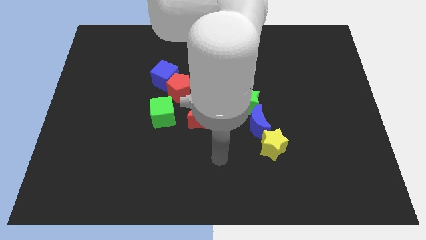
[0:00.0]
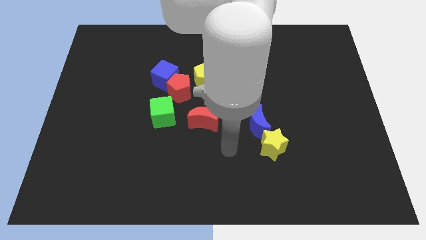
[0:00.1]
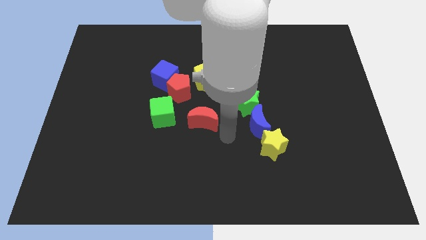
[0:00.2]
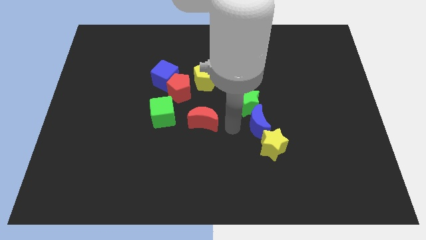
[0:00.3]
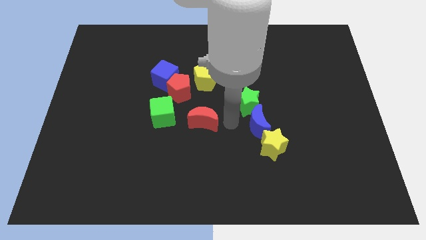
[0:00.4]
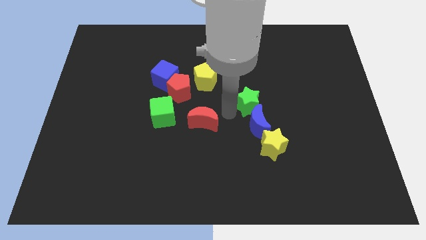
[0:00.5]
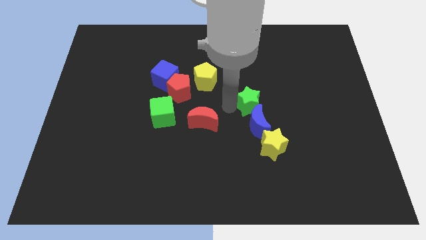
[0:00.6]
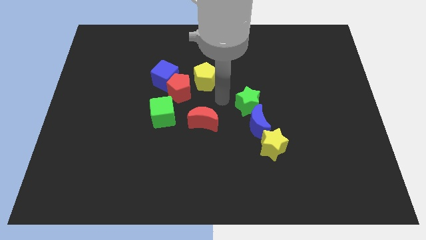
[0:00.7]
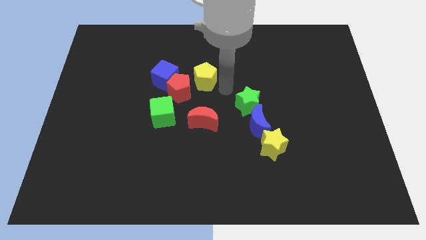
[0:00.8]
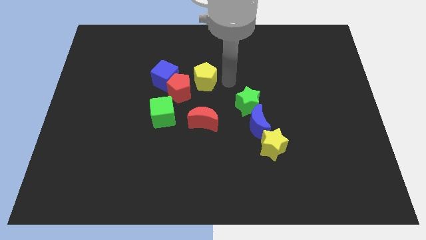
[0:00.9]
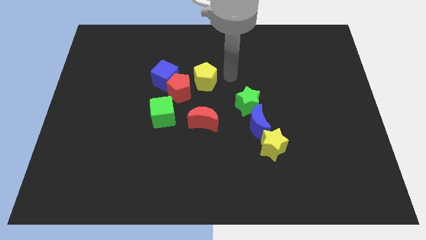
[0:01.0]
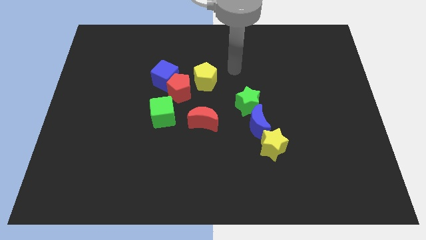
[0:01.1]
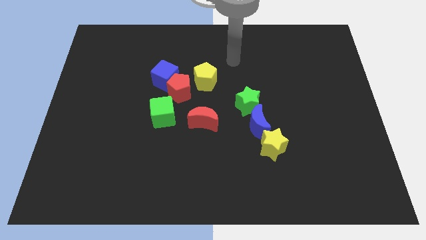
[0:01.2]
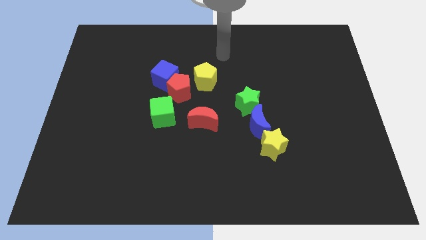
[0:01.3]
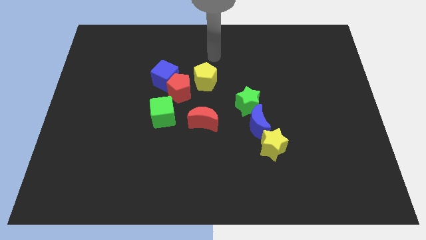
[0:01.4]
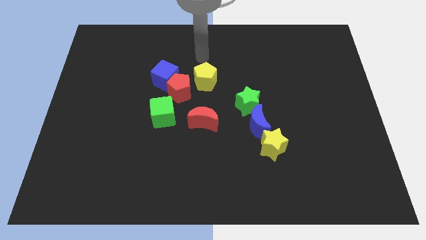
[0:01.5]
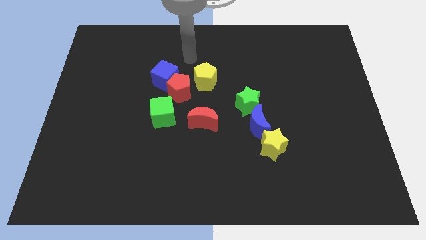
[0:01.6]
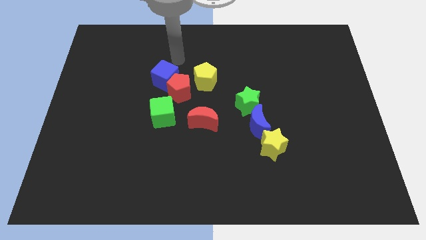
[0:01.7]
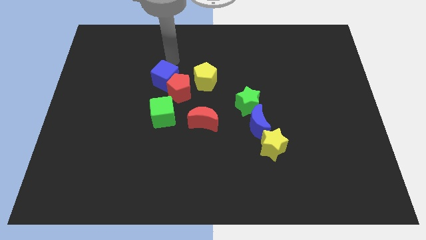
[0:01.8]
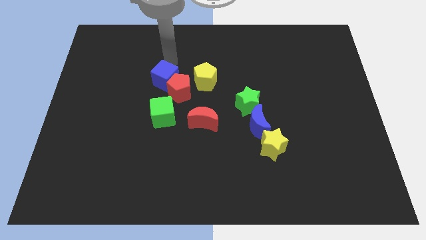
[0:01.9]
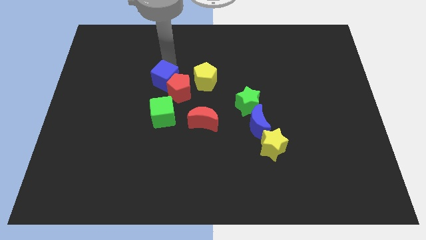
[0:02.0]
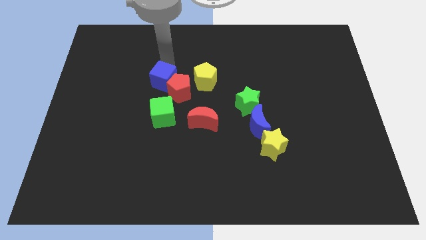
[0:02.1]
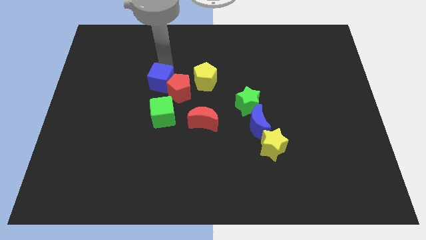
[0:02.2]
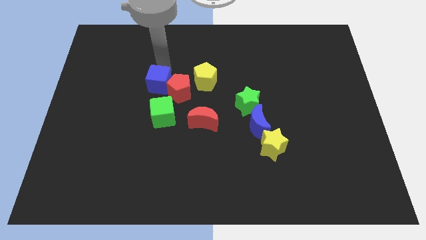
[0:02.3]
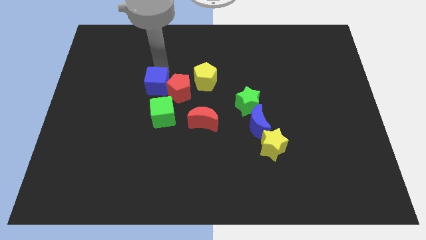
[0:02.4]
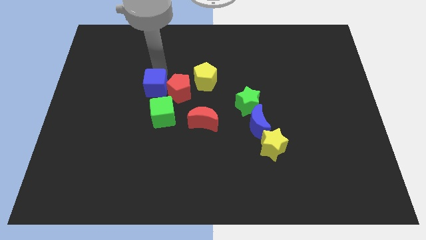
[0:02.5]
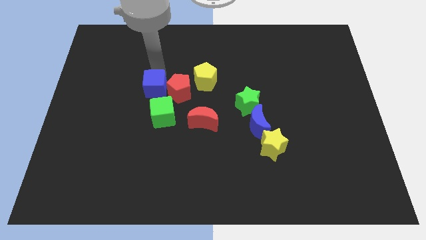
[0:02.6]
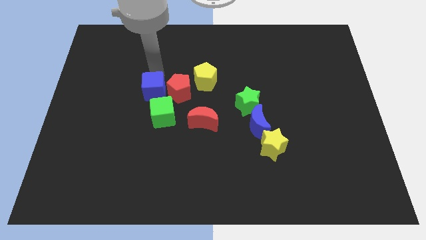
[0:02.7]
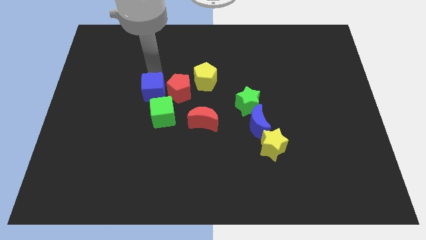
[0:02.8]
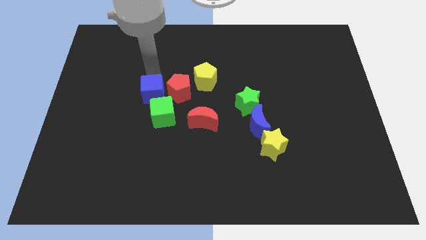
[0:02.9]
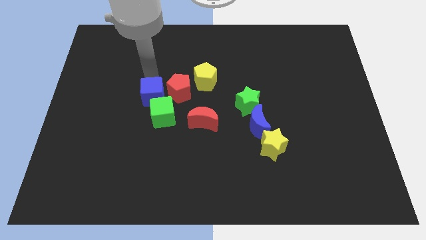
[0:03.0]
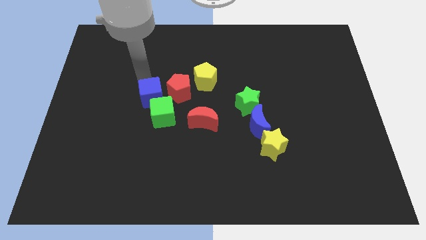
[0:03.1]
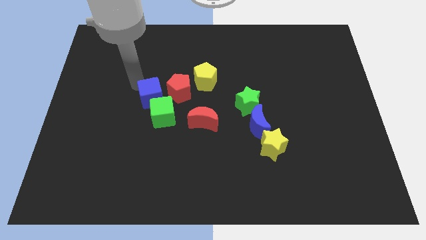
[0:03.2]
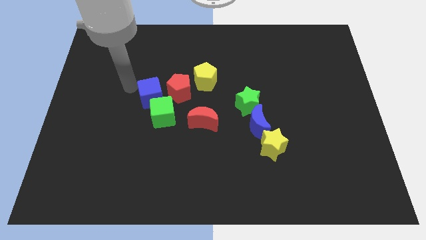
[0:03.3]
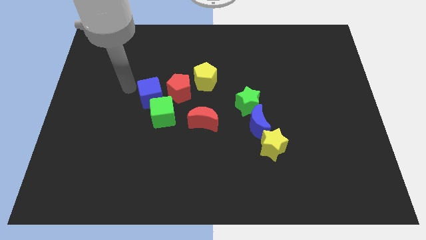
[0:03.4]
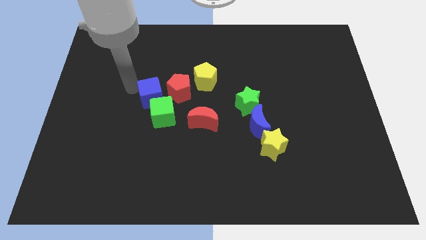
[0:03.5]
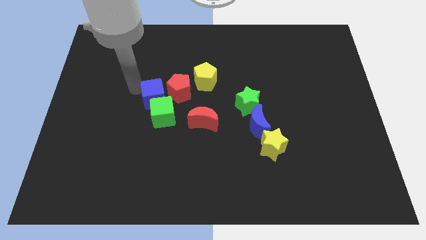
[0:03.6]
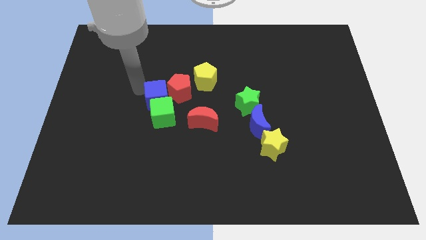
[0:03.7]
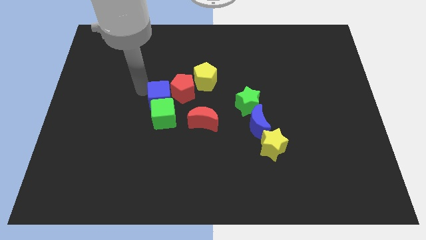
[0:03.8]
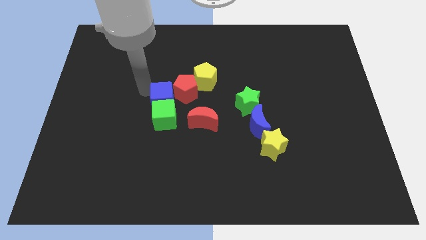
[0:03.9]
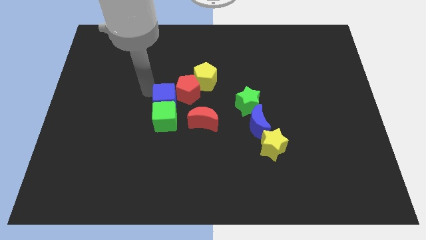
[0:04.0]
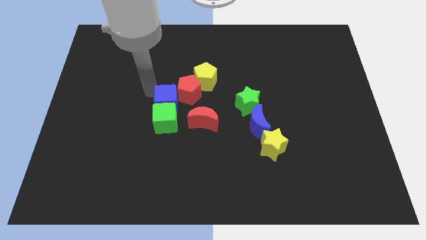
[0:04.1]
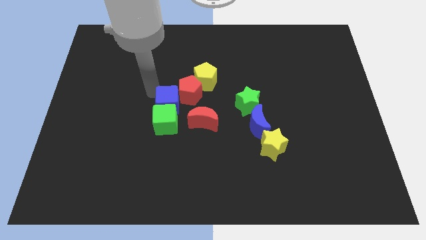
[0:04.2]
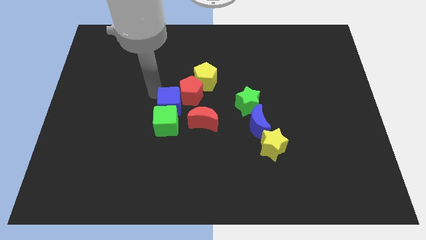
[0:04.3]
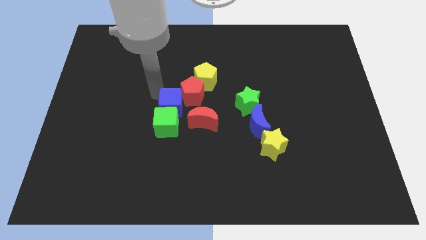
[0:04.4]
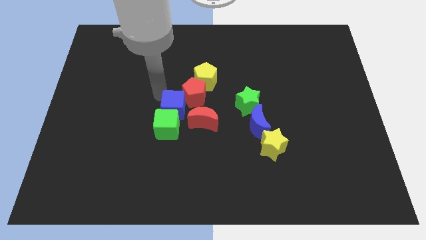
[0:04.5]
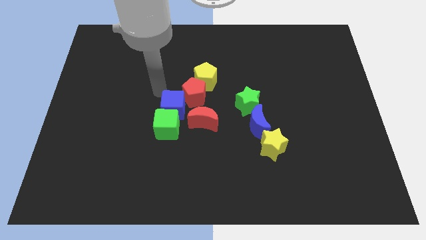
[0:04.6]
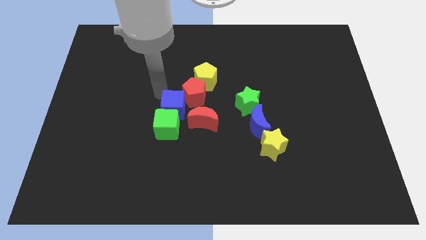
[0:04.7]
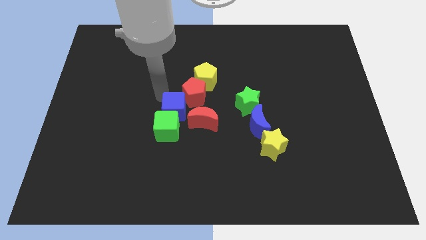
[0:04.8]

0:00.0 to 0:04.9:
move the blue cube below the red pentagon

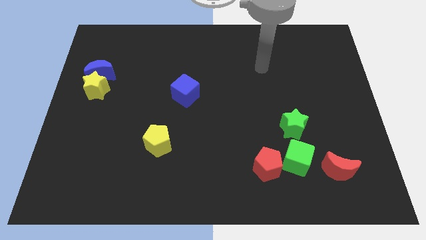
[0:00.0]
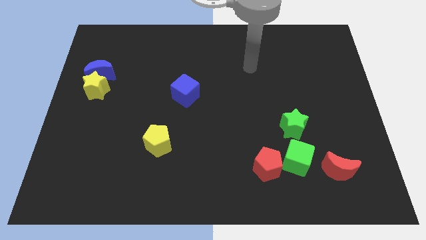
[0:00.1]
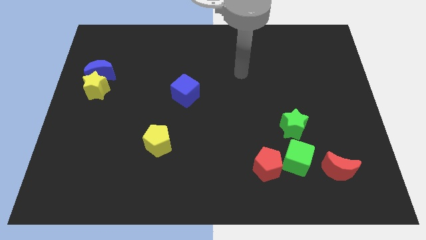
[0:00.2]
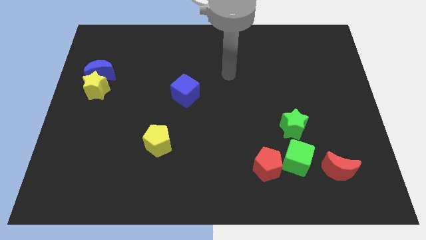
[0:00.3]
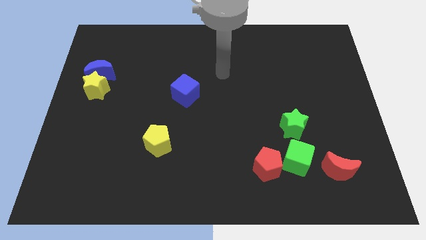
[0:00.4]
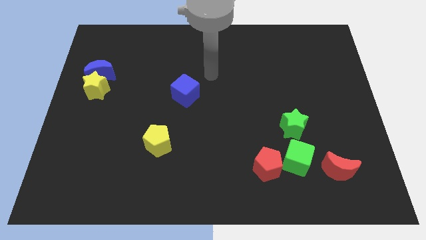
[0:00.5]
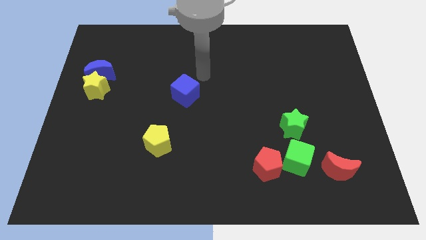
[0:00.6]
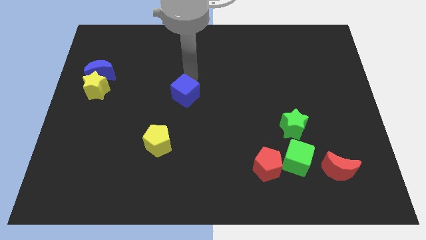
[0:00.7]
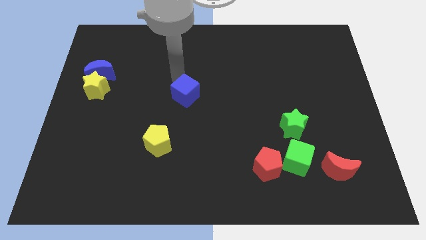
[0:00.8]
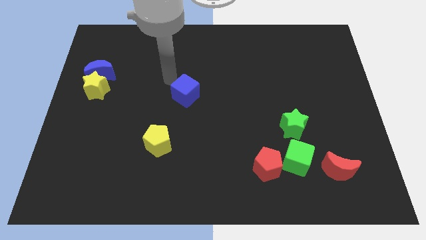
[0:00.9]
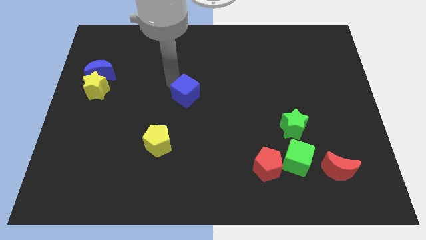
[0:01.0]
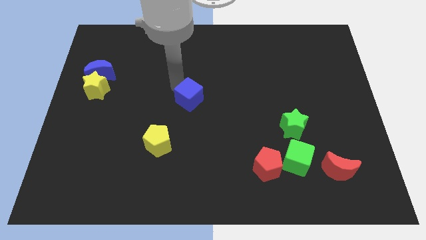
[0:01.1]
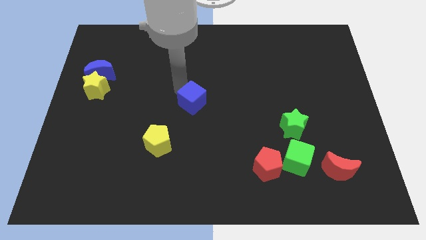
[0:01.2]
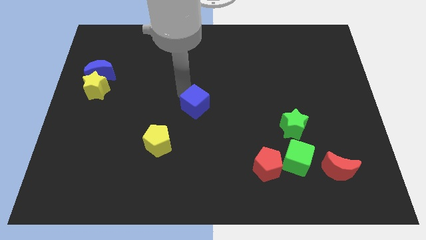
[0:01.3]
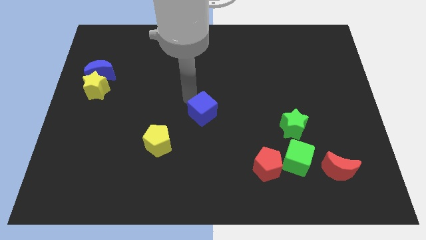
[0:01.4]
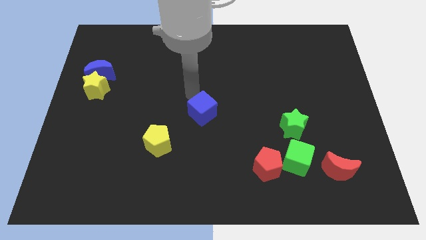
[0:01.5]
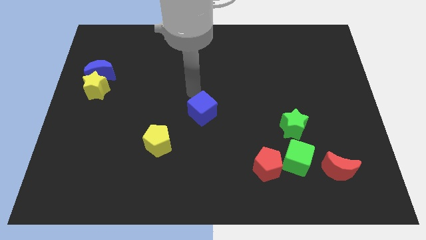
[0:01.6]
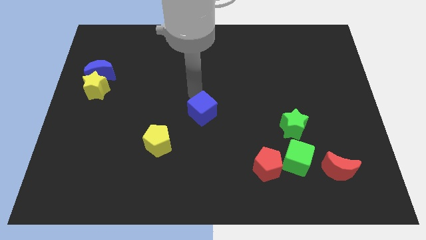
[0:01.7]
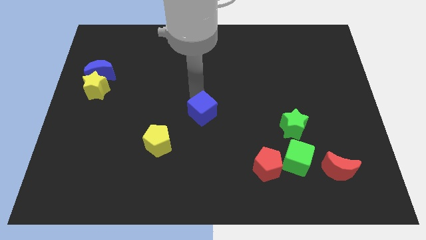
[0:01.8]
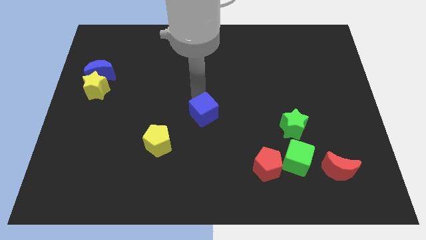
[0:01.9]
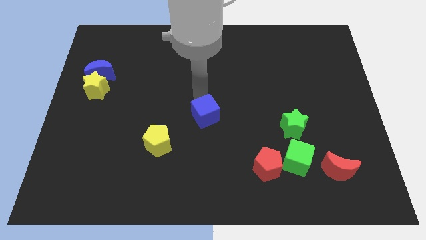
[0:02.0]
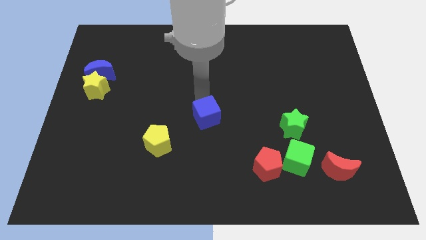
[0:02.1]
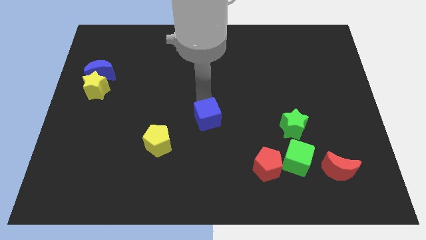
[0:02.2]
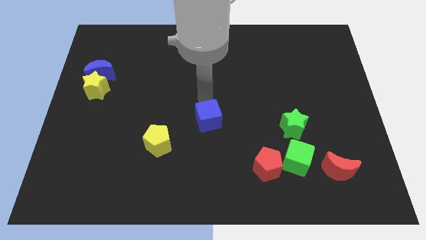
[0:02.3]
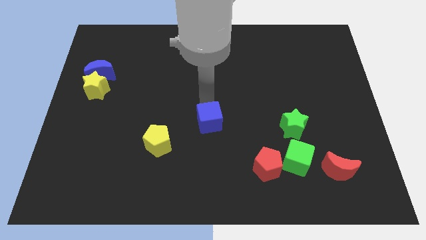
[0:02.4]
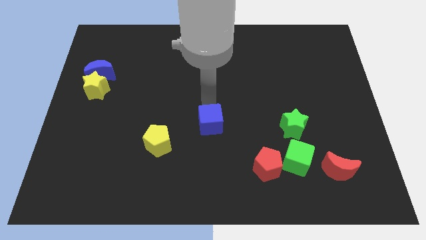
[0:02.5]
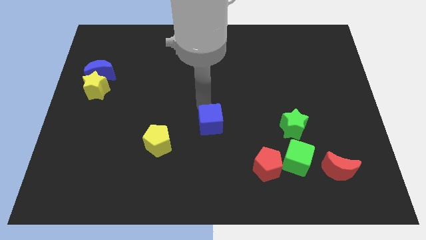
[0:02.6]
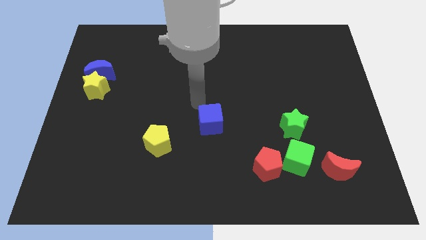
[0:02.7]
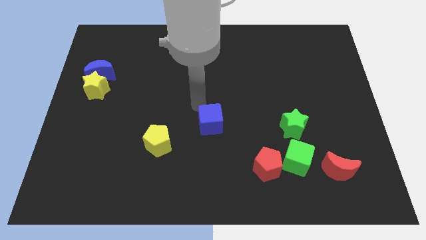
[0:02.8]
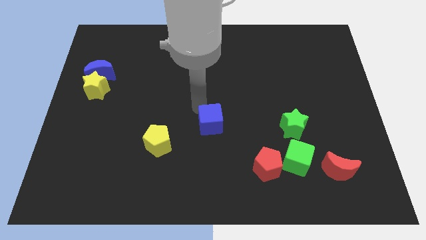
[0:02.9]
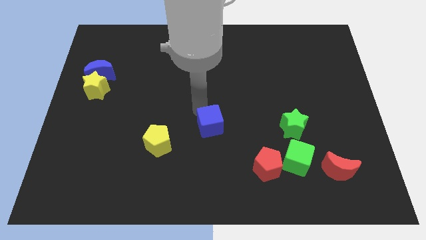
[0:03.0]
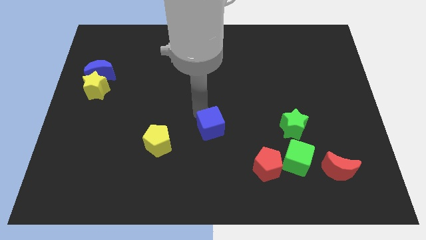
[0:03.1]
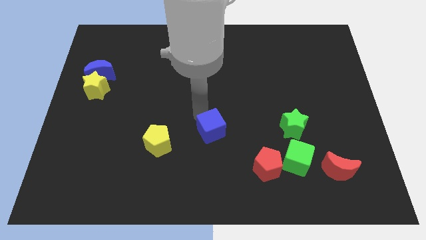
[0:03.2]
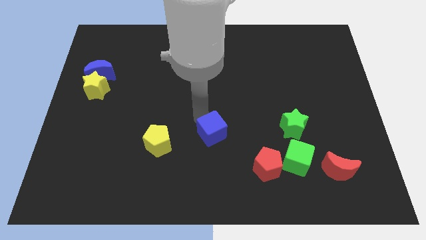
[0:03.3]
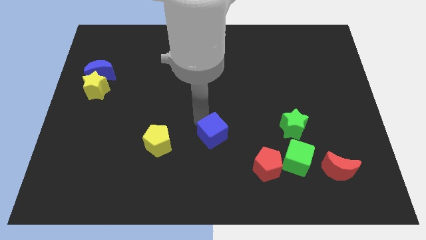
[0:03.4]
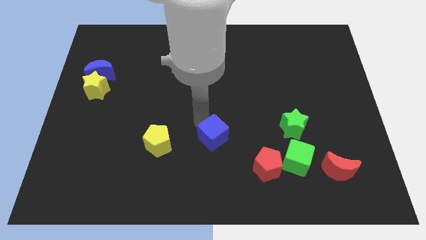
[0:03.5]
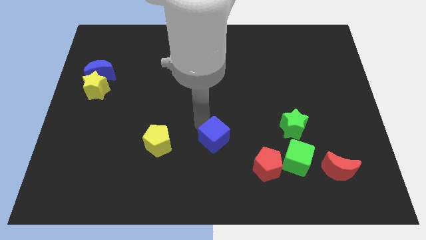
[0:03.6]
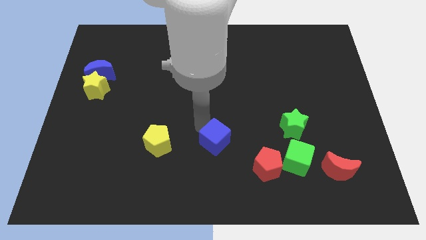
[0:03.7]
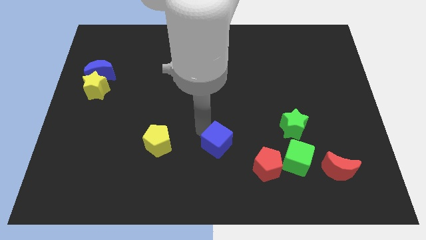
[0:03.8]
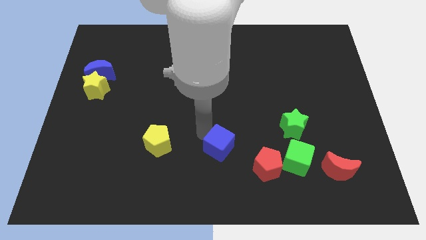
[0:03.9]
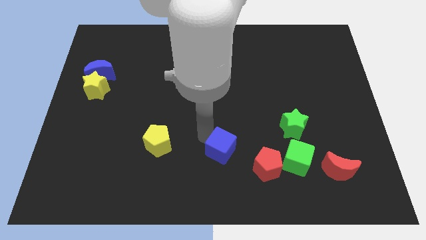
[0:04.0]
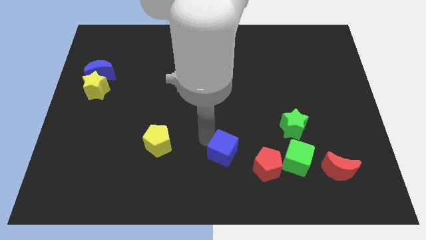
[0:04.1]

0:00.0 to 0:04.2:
put the blue cube just left of the green cube
